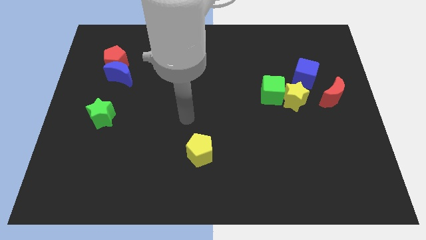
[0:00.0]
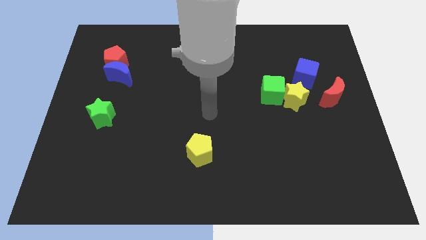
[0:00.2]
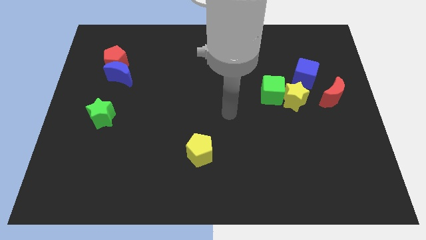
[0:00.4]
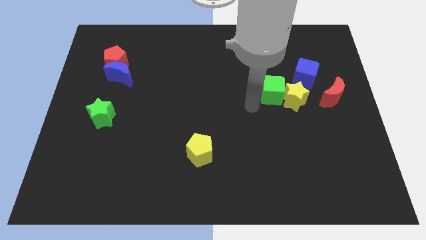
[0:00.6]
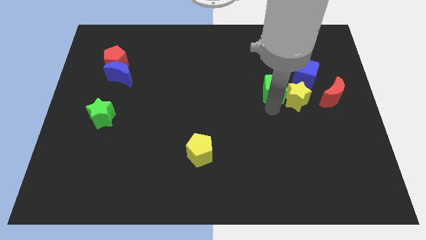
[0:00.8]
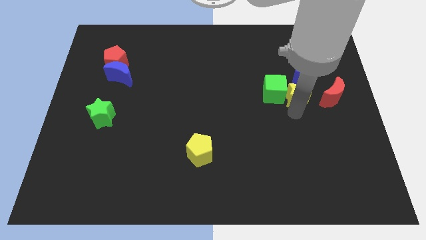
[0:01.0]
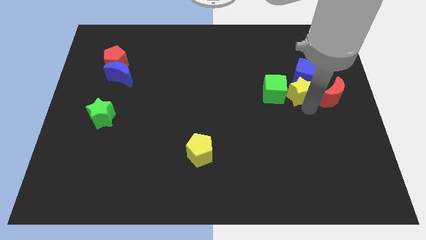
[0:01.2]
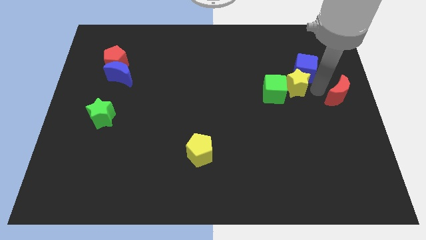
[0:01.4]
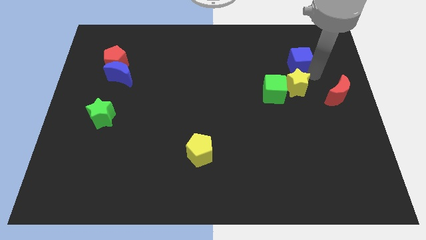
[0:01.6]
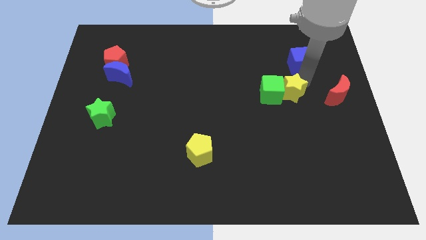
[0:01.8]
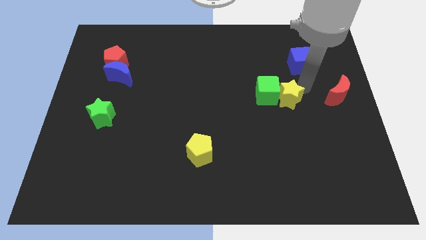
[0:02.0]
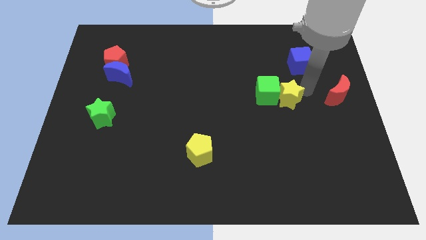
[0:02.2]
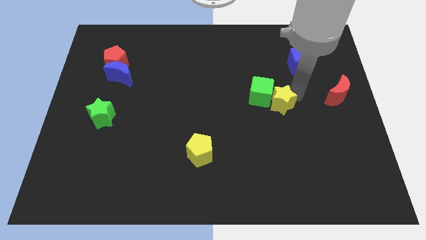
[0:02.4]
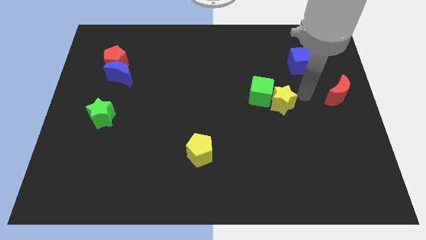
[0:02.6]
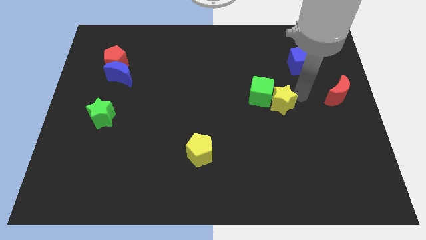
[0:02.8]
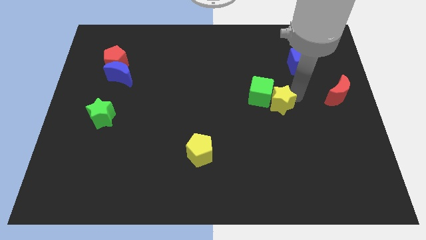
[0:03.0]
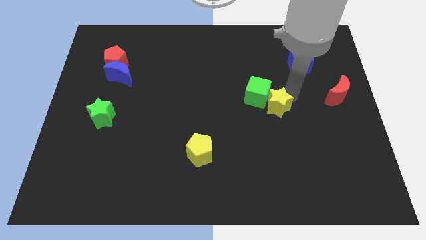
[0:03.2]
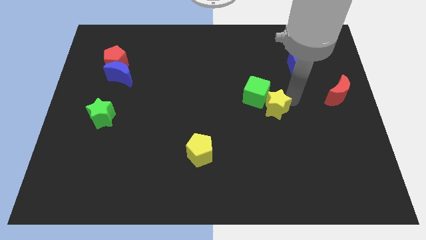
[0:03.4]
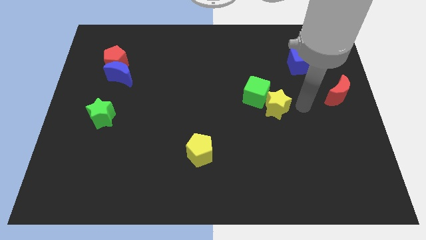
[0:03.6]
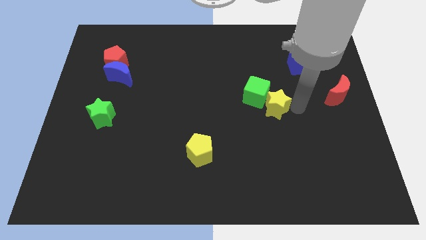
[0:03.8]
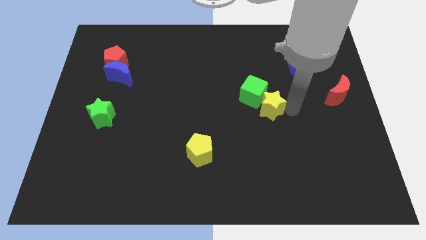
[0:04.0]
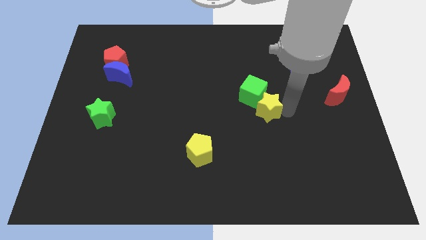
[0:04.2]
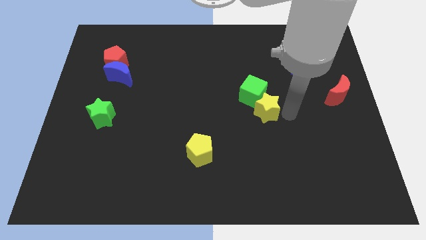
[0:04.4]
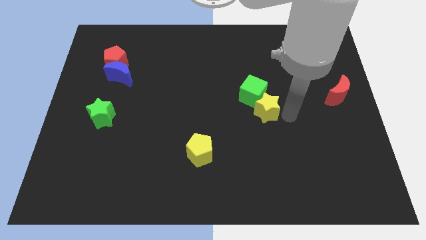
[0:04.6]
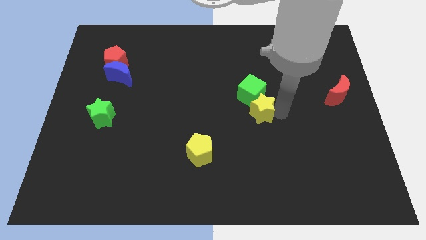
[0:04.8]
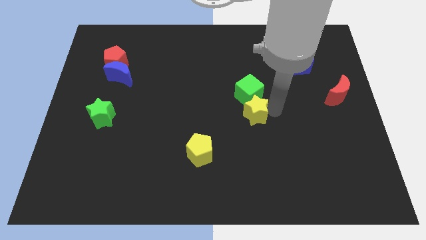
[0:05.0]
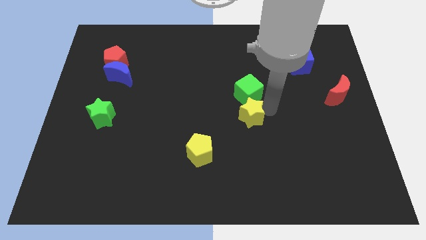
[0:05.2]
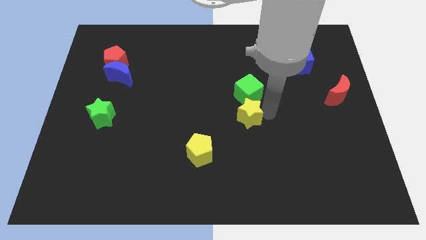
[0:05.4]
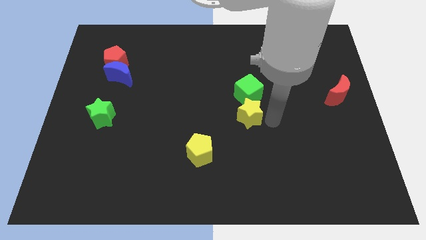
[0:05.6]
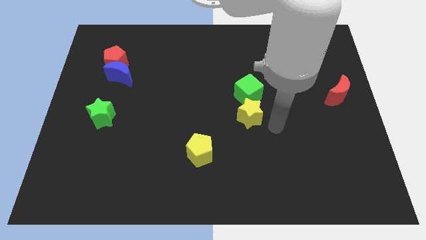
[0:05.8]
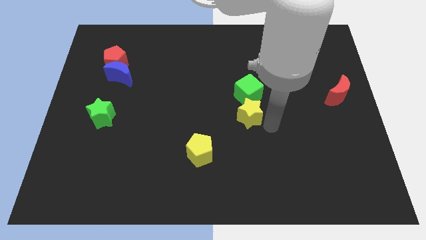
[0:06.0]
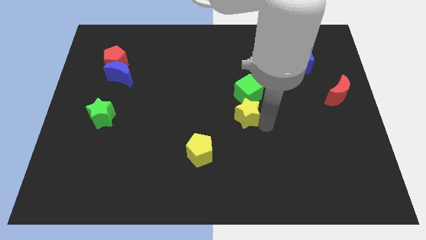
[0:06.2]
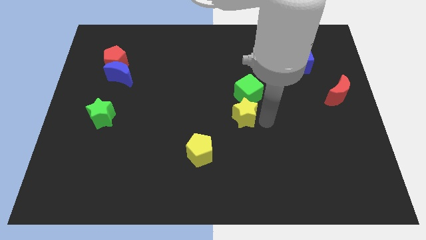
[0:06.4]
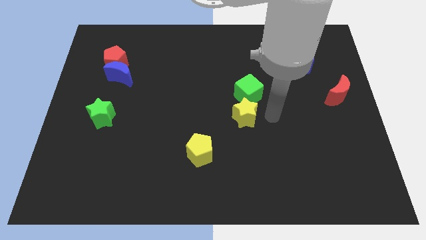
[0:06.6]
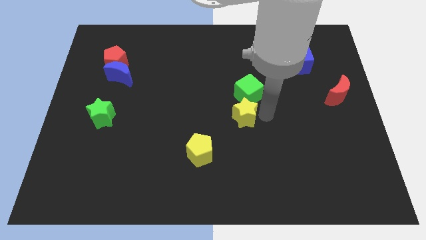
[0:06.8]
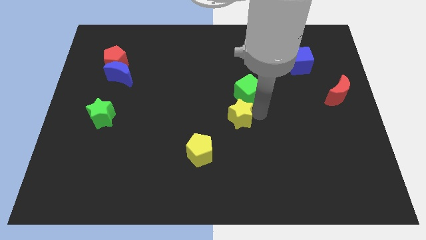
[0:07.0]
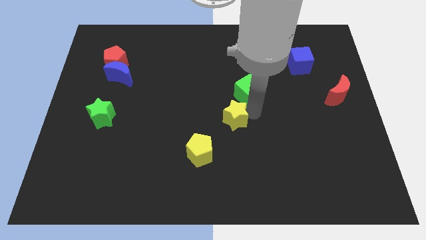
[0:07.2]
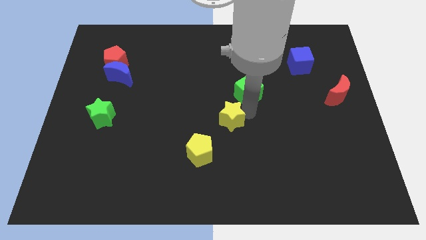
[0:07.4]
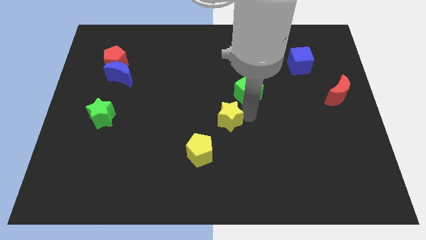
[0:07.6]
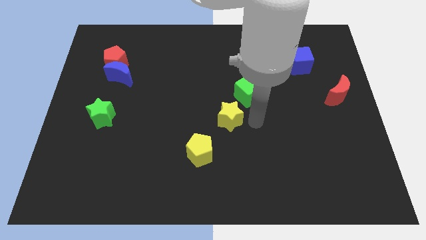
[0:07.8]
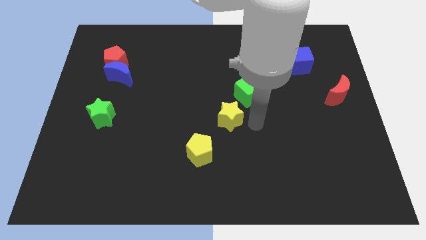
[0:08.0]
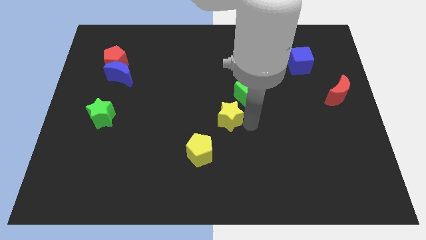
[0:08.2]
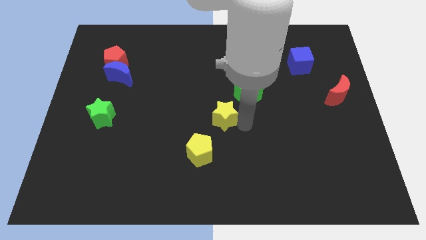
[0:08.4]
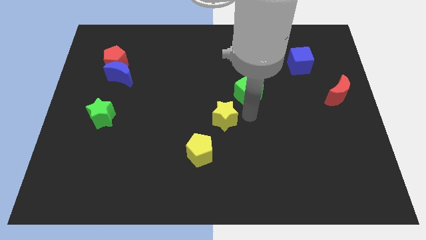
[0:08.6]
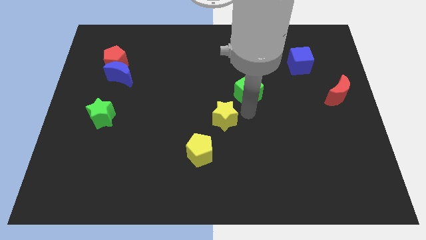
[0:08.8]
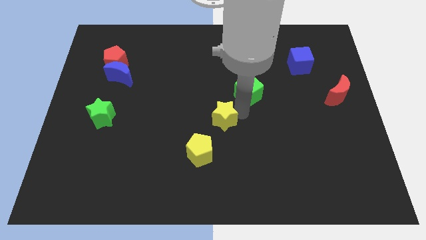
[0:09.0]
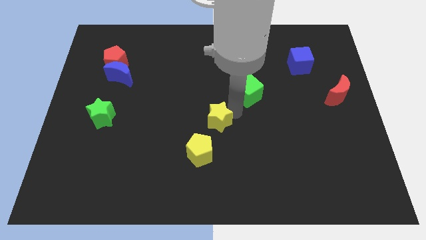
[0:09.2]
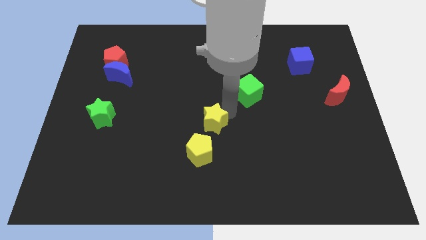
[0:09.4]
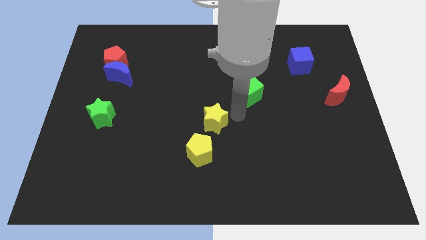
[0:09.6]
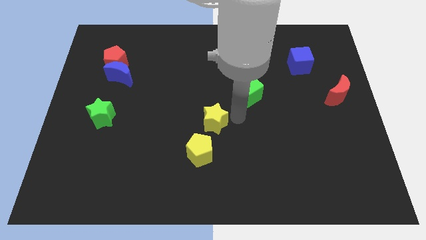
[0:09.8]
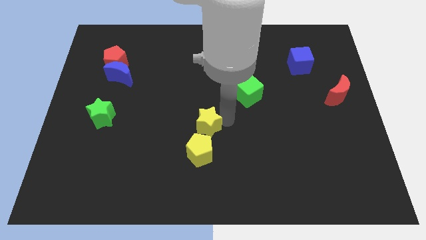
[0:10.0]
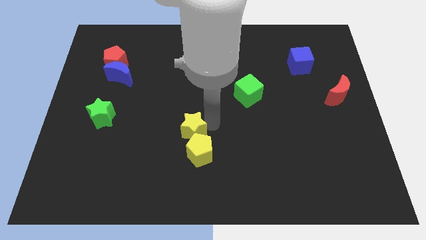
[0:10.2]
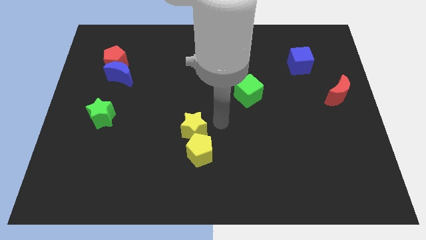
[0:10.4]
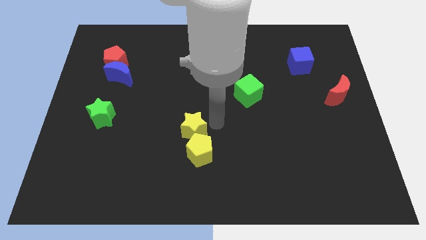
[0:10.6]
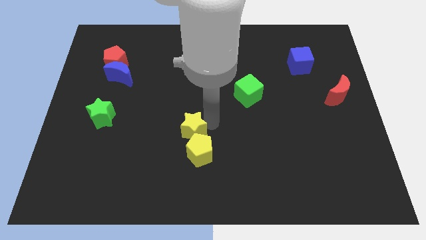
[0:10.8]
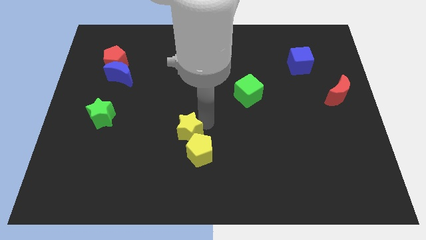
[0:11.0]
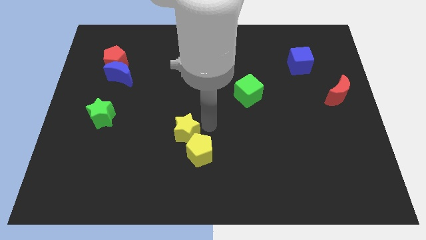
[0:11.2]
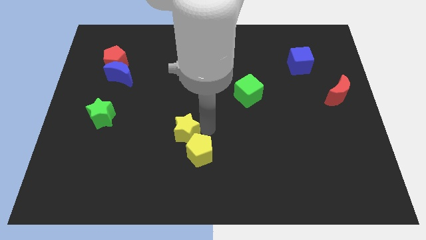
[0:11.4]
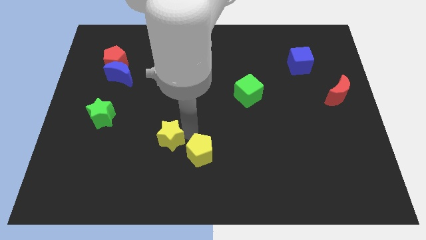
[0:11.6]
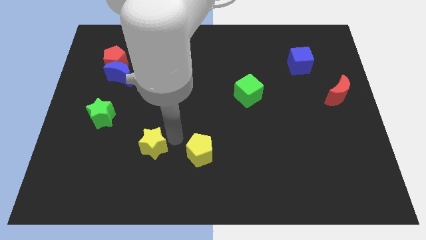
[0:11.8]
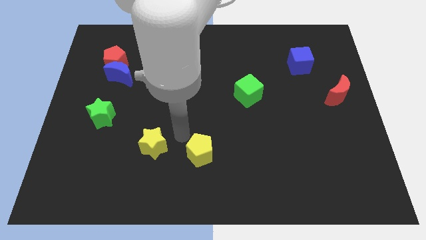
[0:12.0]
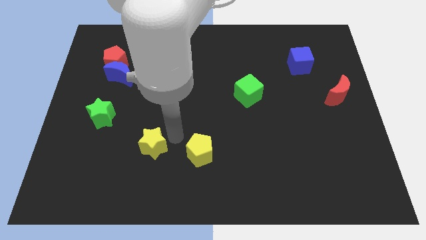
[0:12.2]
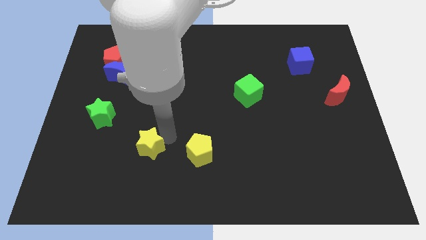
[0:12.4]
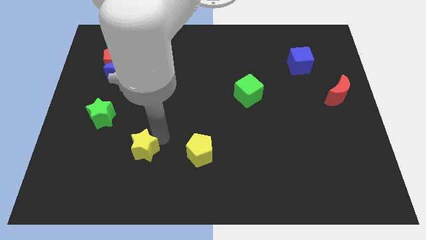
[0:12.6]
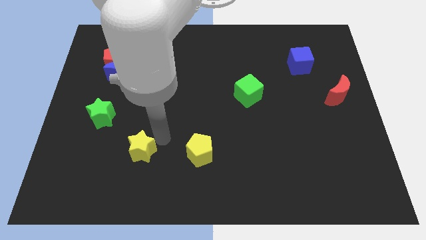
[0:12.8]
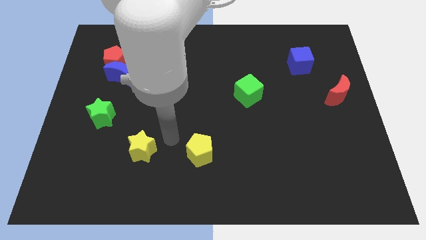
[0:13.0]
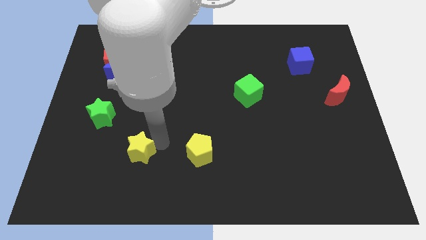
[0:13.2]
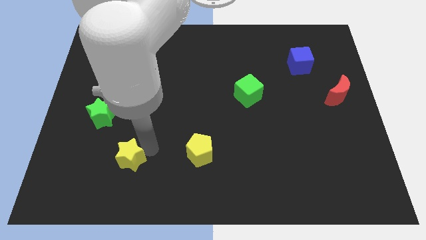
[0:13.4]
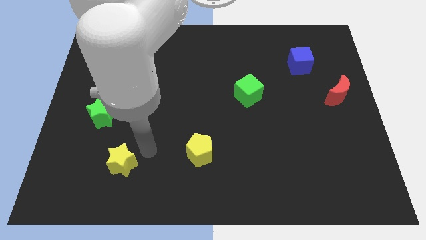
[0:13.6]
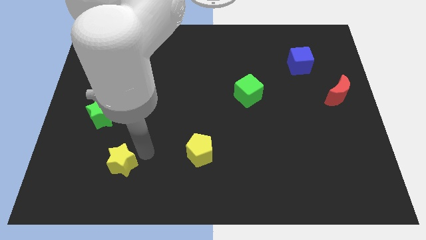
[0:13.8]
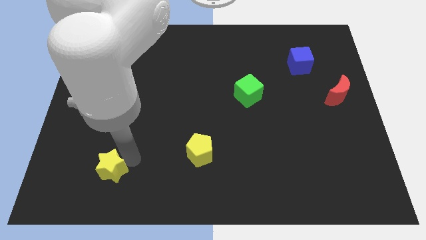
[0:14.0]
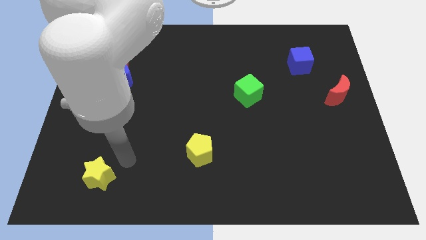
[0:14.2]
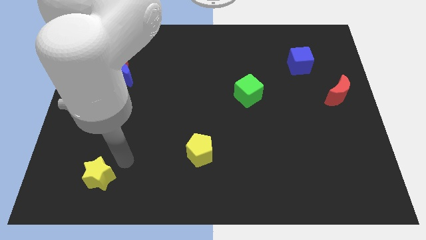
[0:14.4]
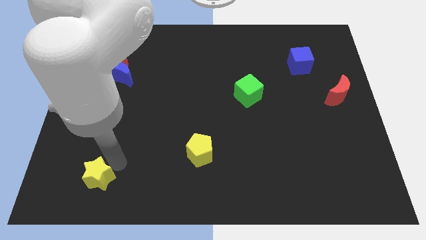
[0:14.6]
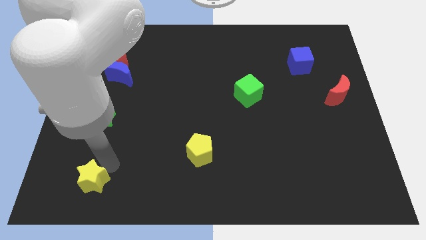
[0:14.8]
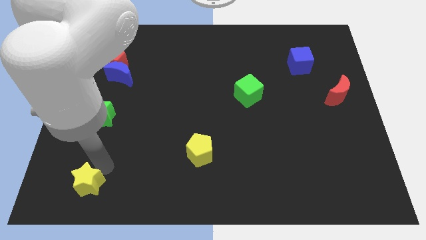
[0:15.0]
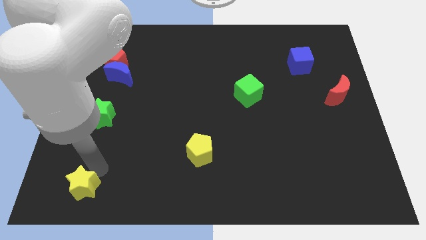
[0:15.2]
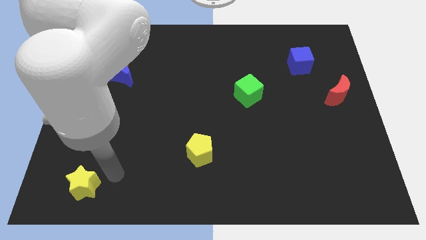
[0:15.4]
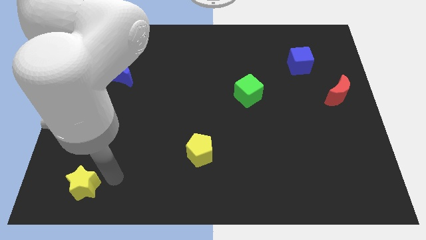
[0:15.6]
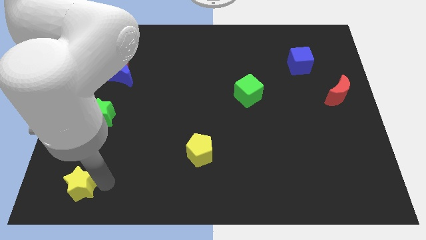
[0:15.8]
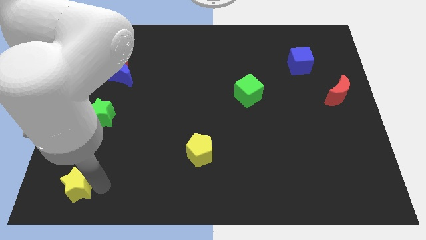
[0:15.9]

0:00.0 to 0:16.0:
slide the yellow star to the bottom left of the board
